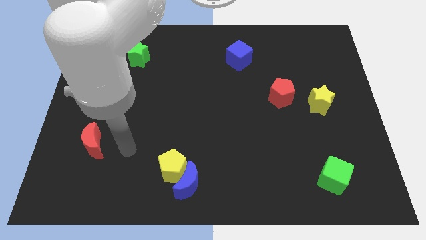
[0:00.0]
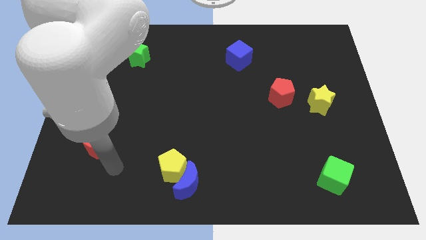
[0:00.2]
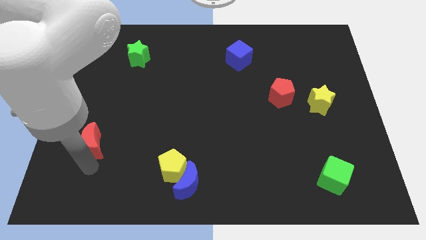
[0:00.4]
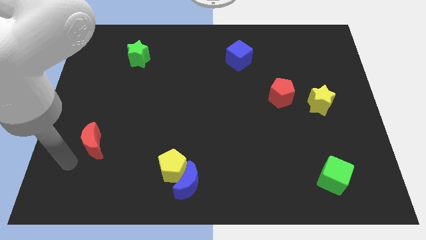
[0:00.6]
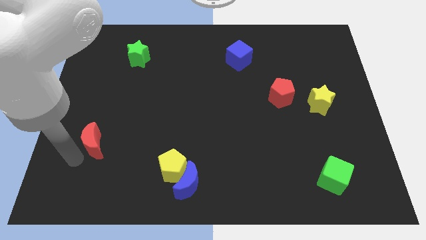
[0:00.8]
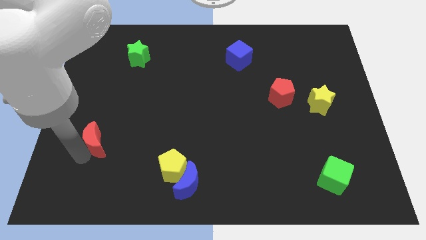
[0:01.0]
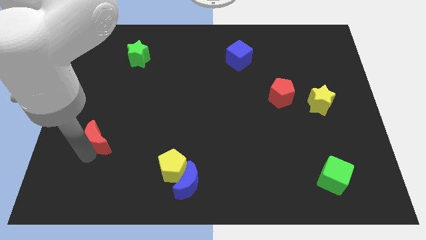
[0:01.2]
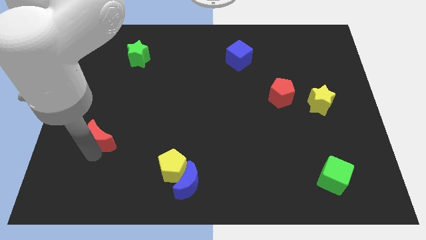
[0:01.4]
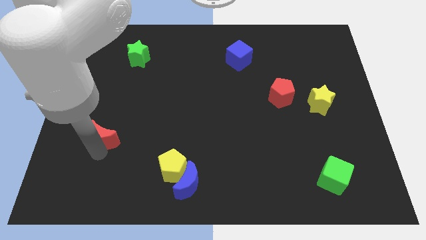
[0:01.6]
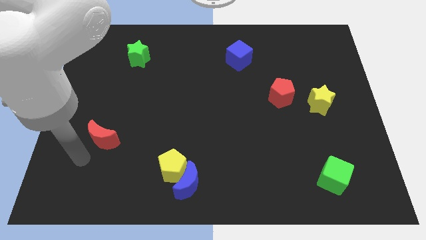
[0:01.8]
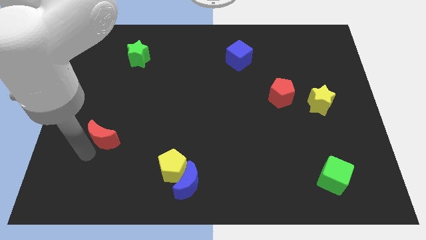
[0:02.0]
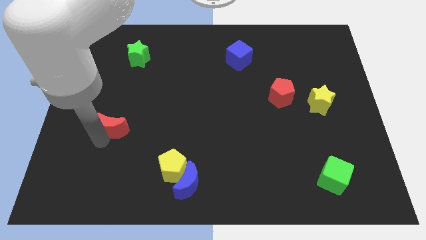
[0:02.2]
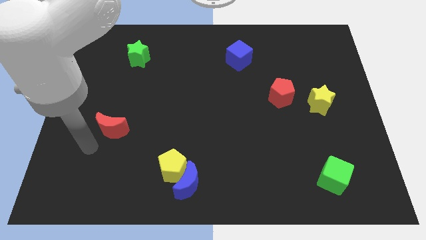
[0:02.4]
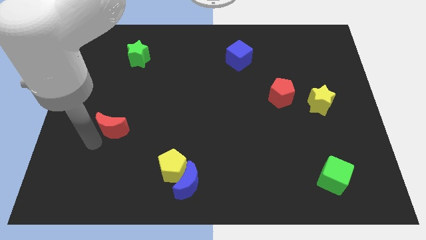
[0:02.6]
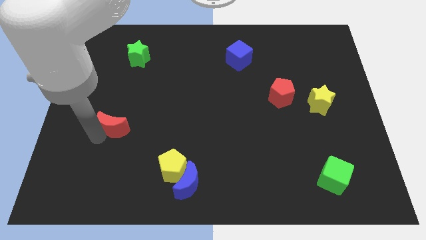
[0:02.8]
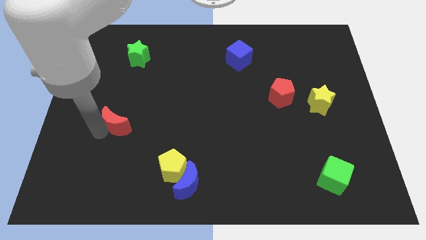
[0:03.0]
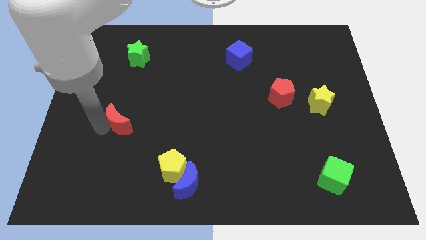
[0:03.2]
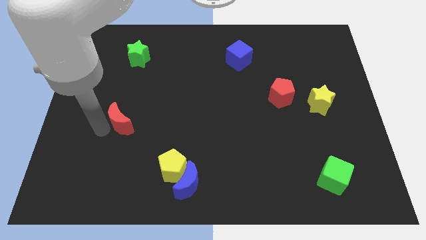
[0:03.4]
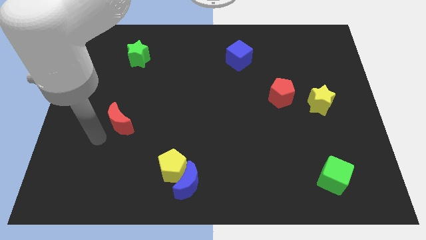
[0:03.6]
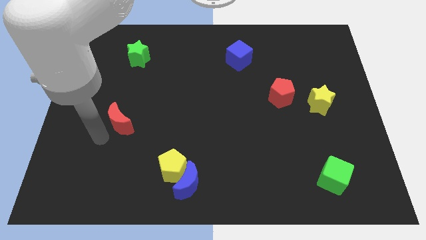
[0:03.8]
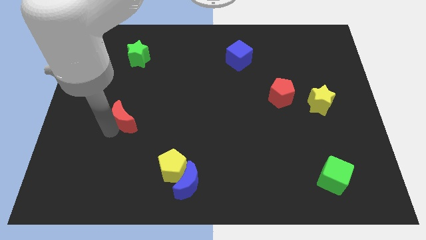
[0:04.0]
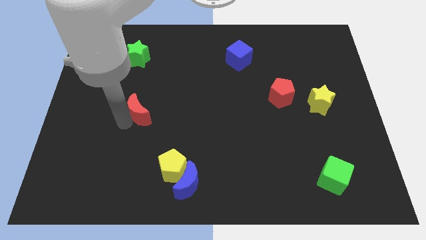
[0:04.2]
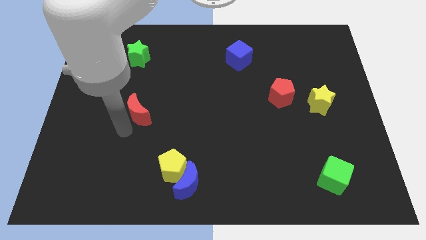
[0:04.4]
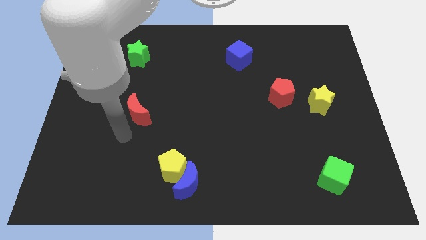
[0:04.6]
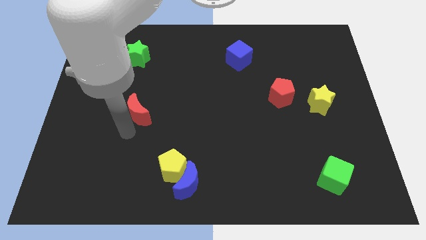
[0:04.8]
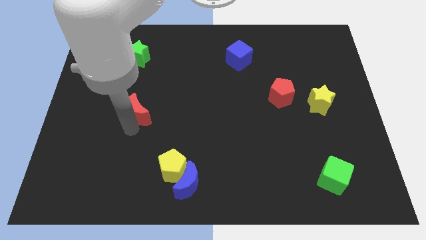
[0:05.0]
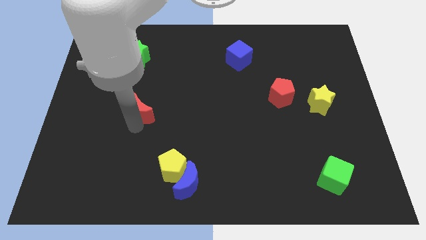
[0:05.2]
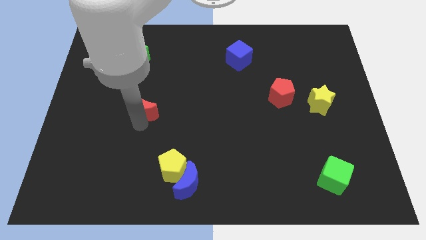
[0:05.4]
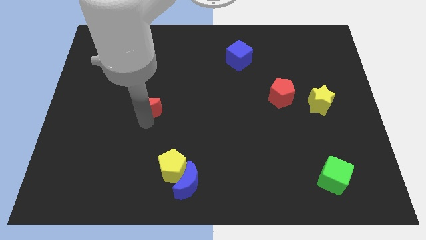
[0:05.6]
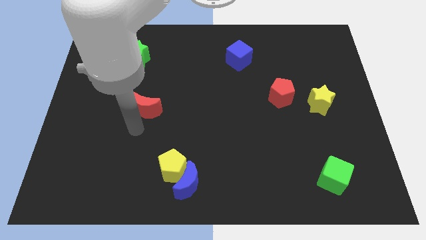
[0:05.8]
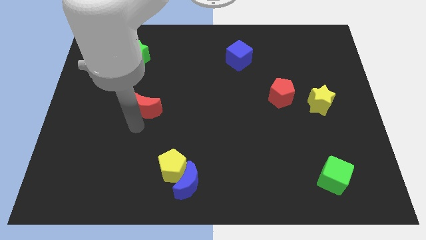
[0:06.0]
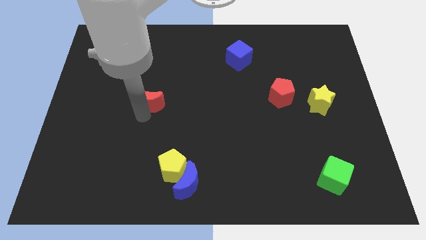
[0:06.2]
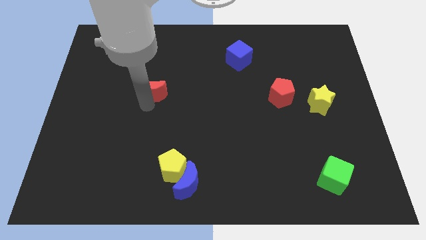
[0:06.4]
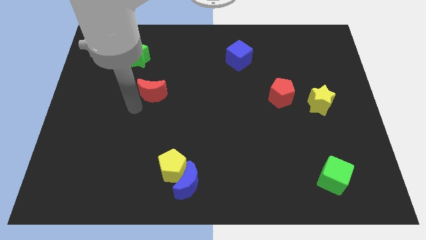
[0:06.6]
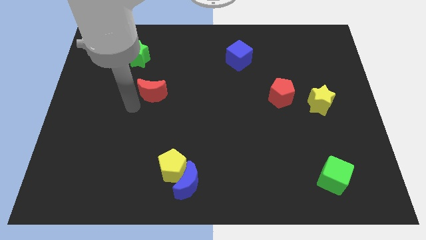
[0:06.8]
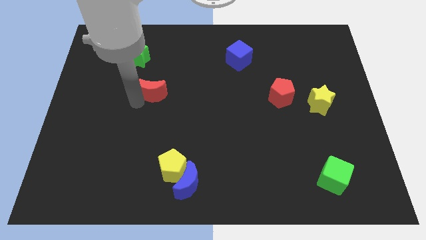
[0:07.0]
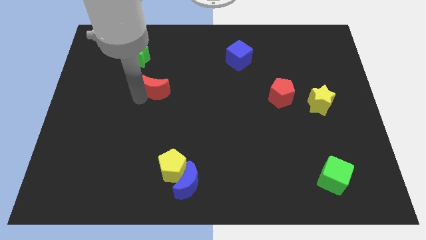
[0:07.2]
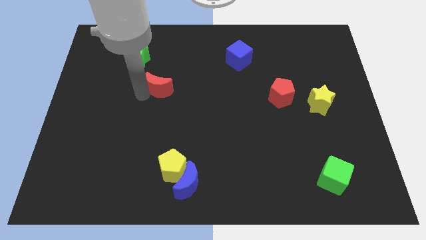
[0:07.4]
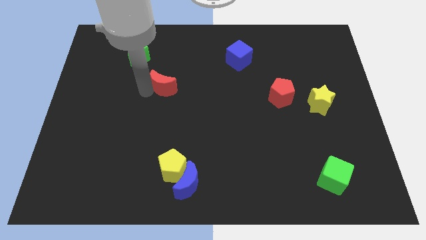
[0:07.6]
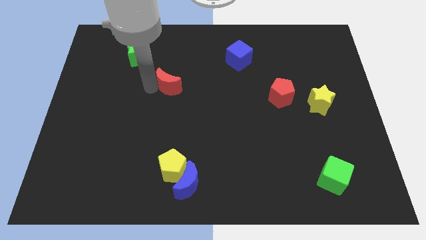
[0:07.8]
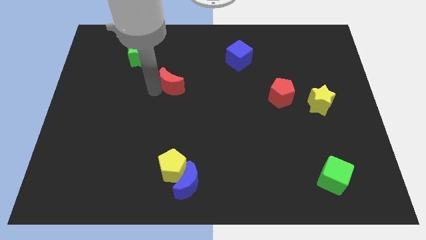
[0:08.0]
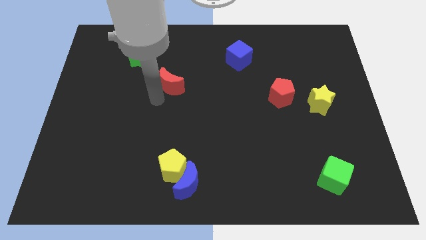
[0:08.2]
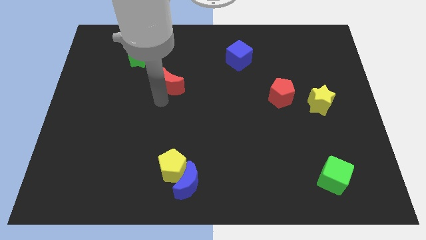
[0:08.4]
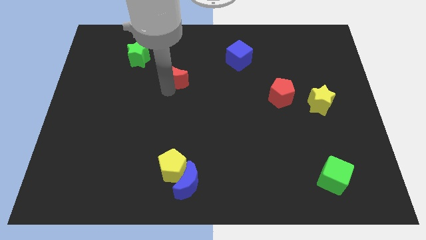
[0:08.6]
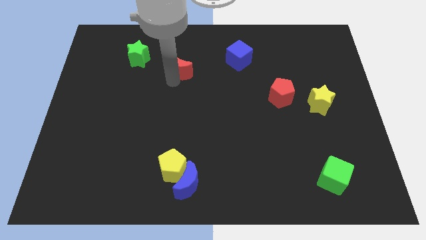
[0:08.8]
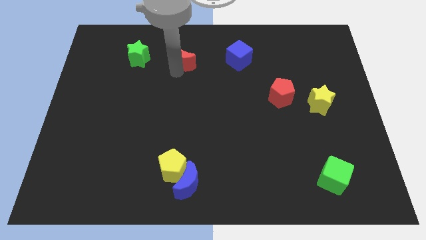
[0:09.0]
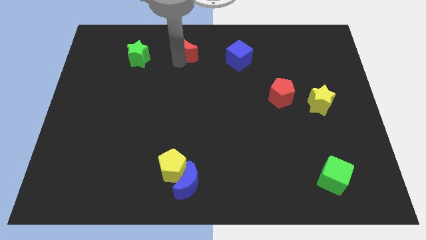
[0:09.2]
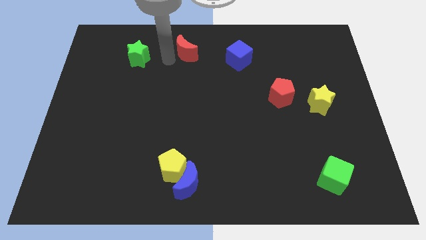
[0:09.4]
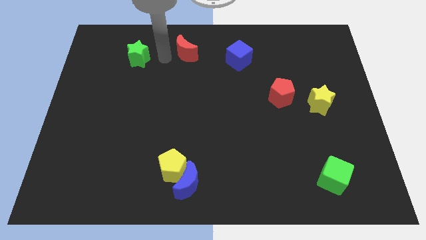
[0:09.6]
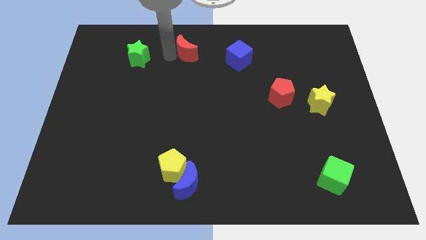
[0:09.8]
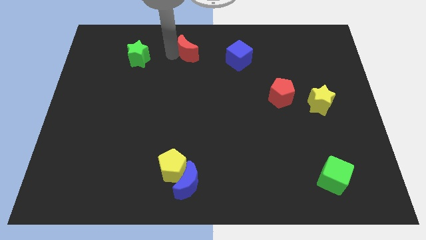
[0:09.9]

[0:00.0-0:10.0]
put the red moon to the top side

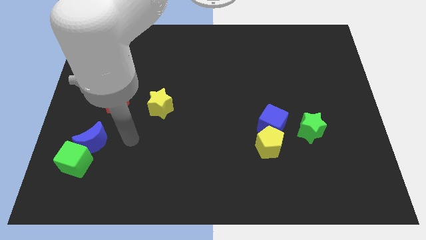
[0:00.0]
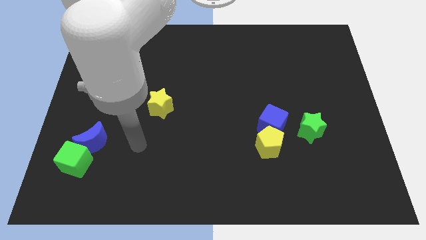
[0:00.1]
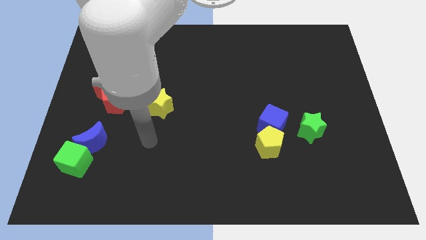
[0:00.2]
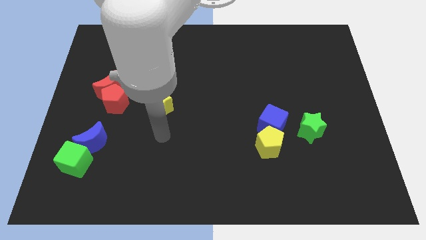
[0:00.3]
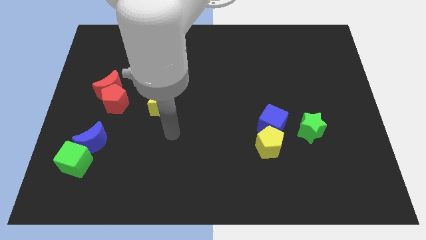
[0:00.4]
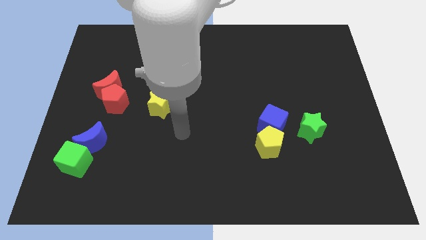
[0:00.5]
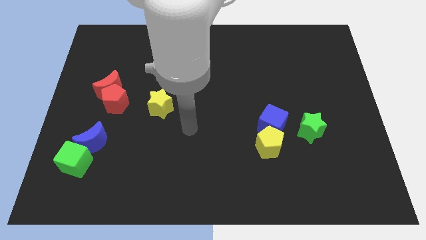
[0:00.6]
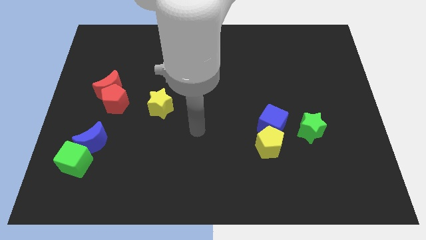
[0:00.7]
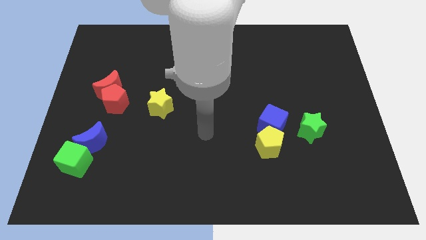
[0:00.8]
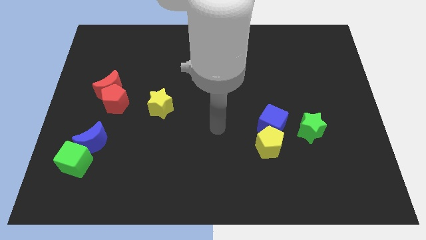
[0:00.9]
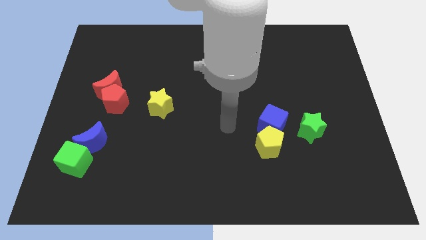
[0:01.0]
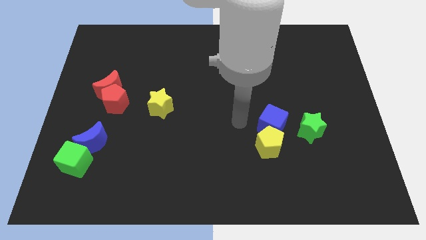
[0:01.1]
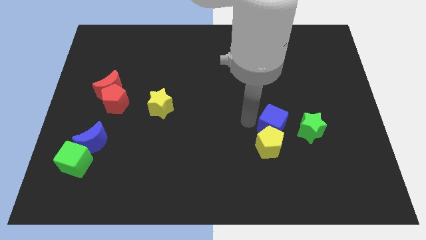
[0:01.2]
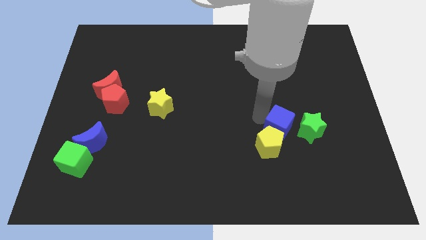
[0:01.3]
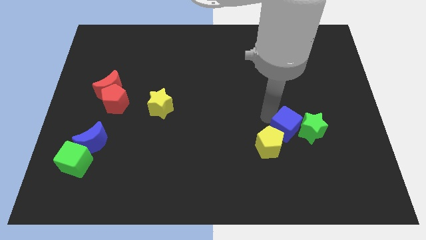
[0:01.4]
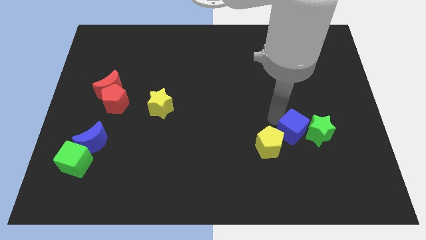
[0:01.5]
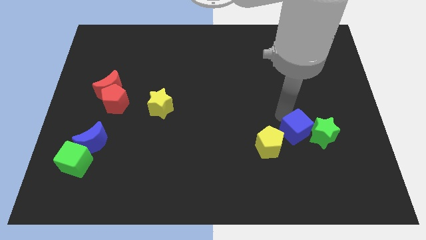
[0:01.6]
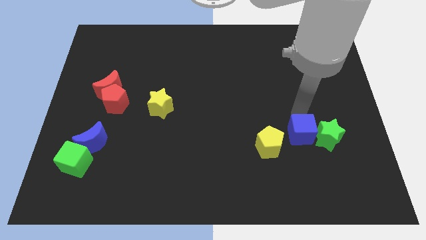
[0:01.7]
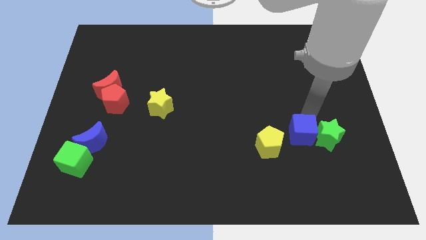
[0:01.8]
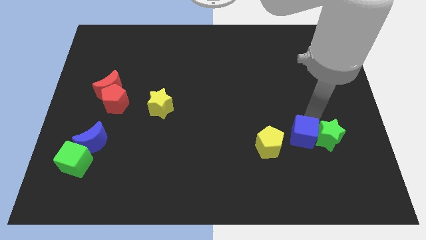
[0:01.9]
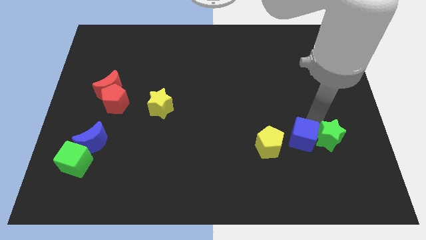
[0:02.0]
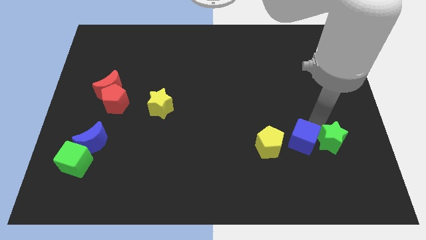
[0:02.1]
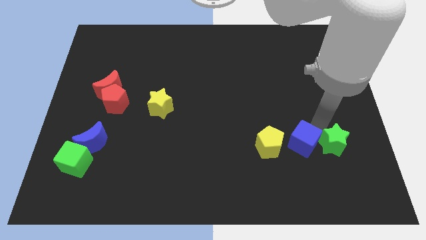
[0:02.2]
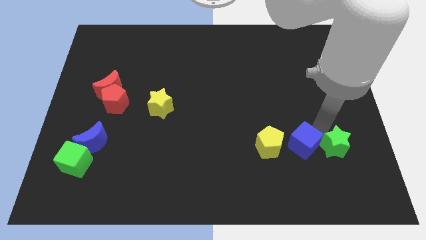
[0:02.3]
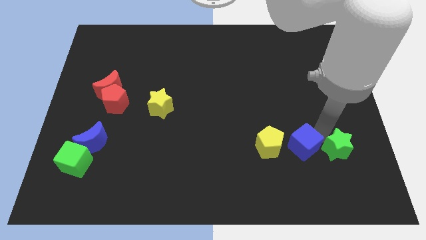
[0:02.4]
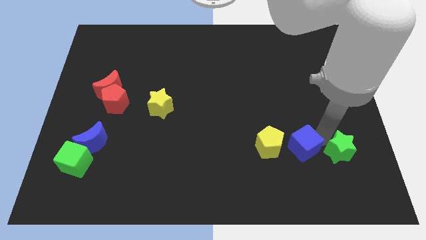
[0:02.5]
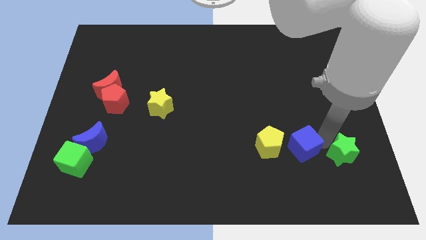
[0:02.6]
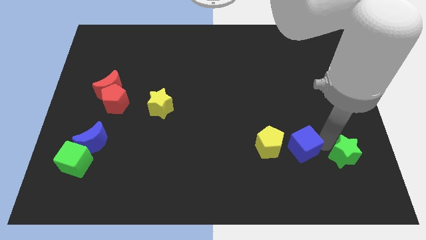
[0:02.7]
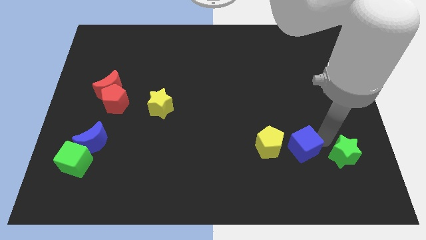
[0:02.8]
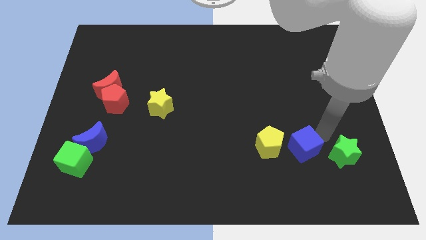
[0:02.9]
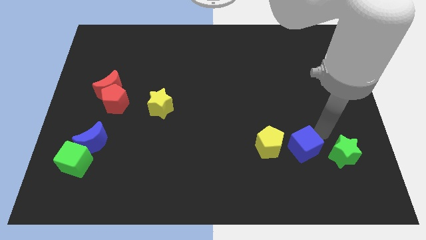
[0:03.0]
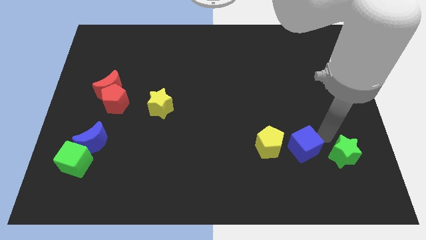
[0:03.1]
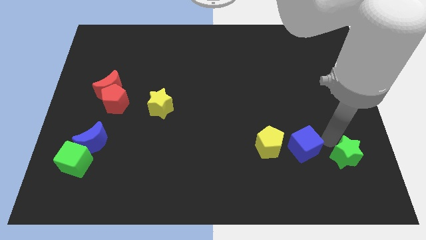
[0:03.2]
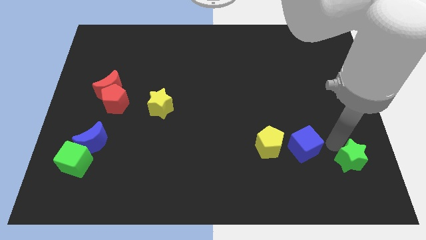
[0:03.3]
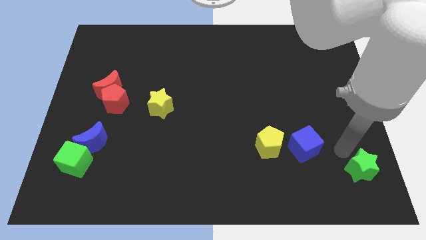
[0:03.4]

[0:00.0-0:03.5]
move the green star to the lower right corner
